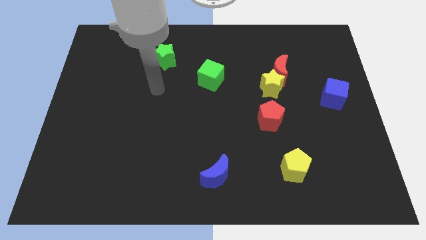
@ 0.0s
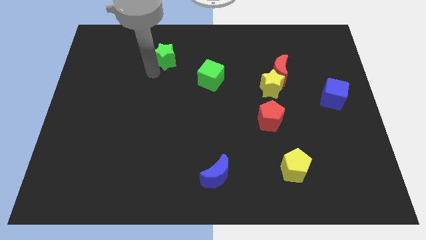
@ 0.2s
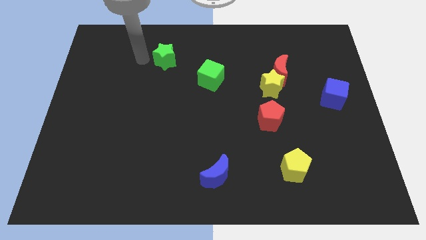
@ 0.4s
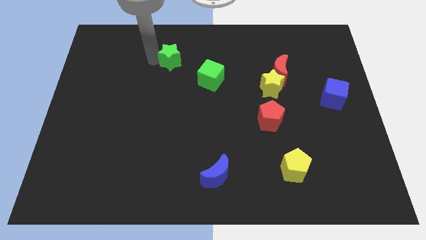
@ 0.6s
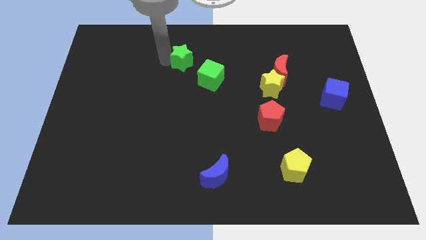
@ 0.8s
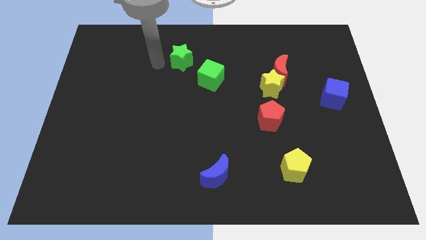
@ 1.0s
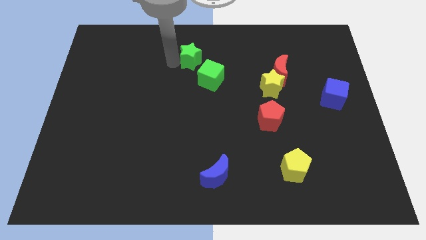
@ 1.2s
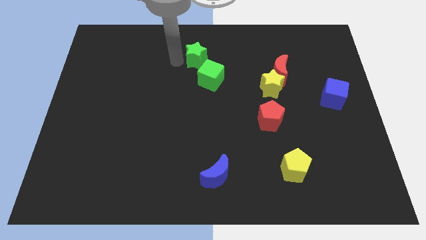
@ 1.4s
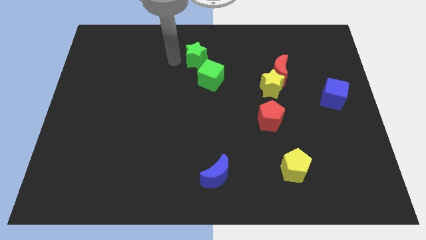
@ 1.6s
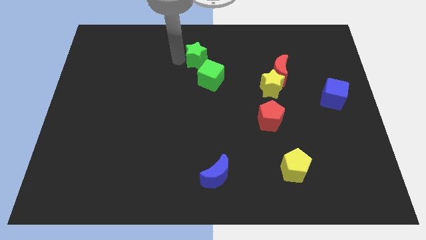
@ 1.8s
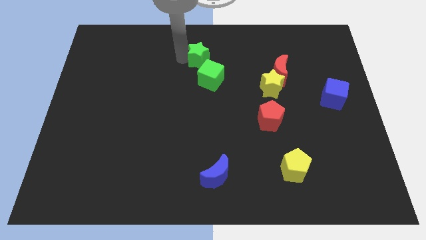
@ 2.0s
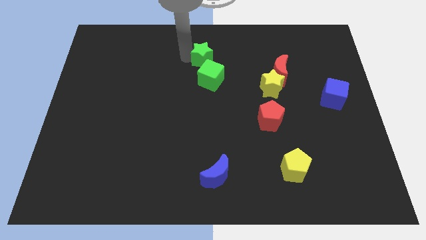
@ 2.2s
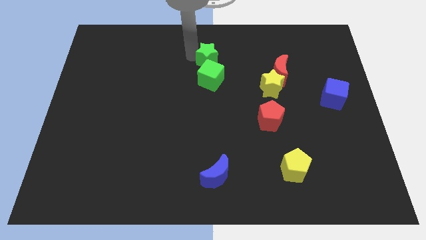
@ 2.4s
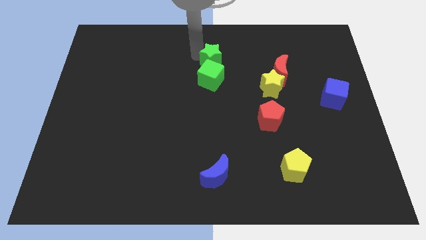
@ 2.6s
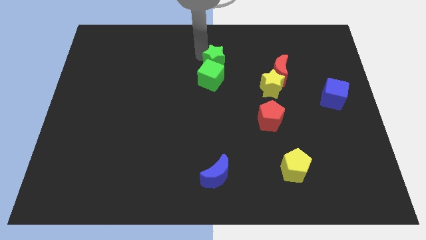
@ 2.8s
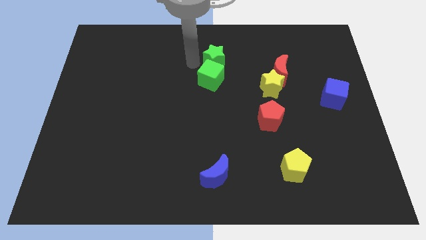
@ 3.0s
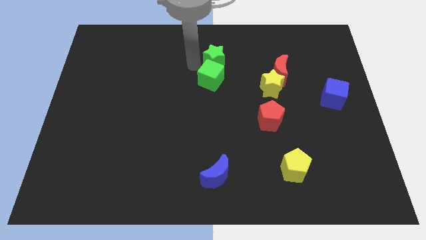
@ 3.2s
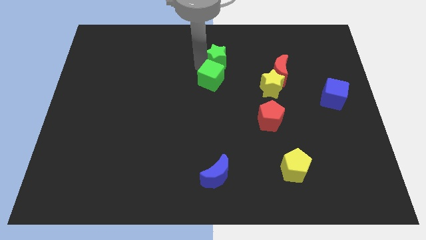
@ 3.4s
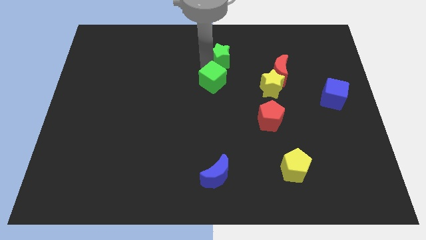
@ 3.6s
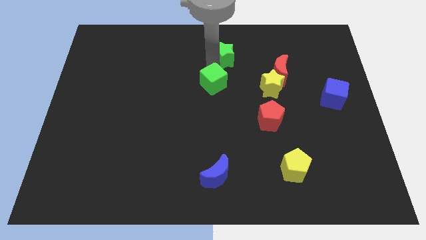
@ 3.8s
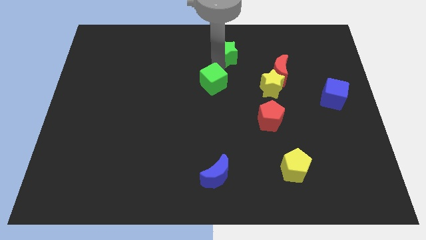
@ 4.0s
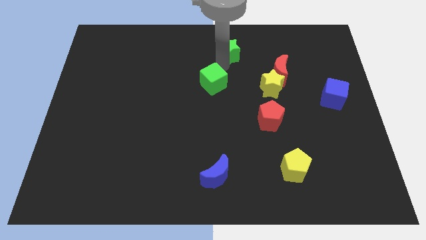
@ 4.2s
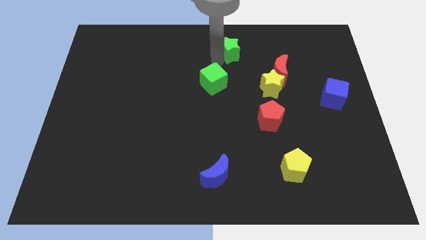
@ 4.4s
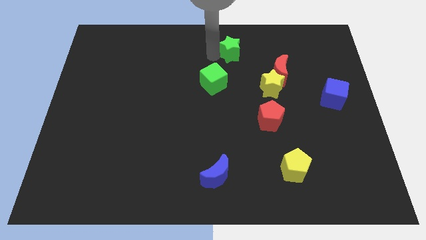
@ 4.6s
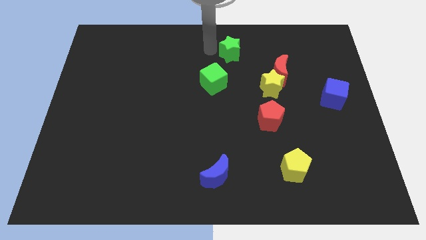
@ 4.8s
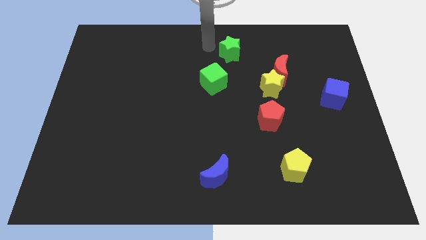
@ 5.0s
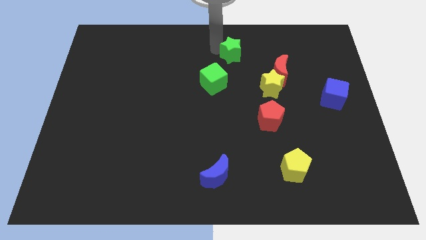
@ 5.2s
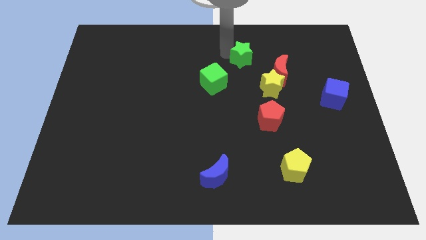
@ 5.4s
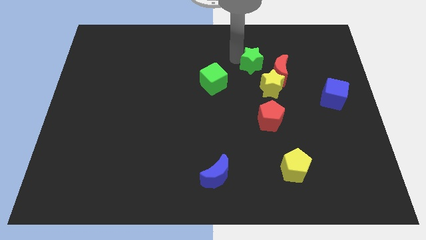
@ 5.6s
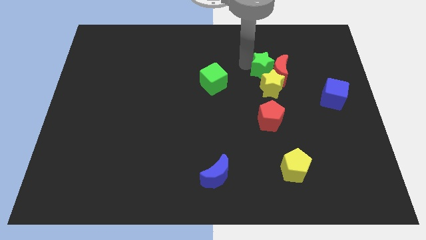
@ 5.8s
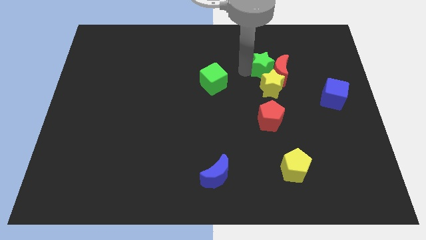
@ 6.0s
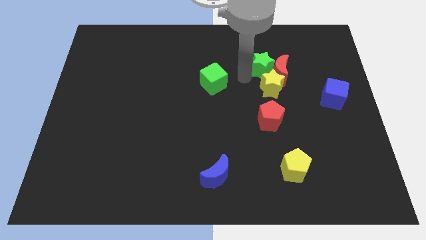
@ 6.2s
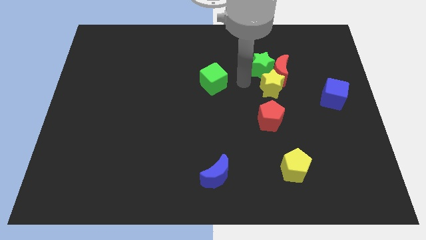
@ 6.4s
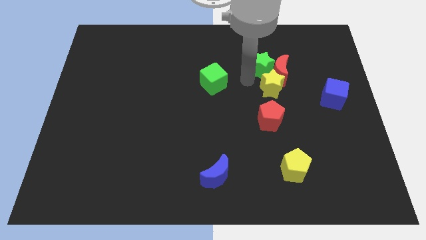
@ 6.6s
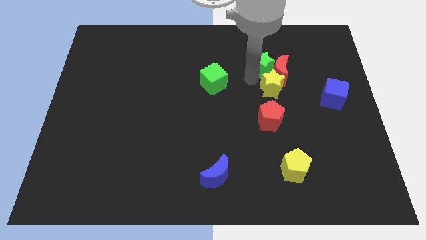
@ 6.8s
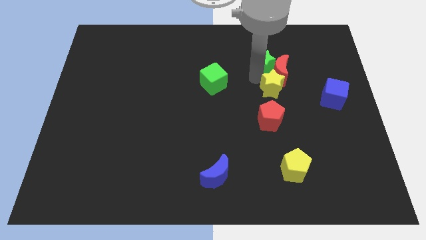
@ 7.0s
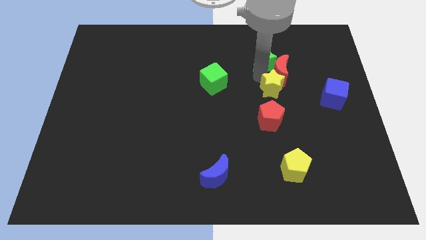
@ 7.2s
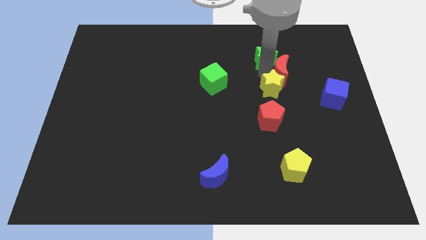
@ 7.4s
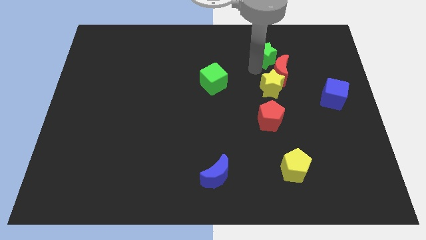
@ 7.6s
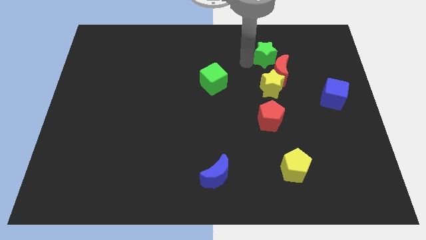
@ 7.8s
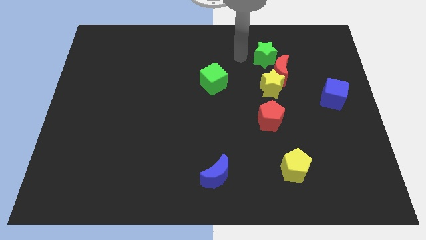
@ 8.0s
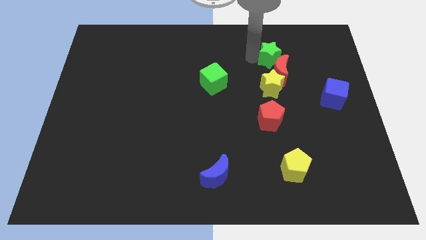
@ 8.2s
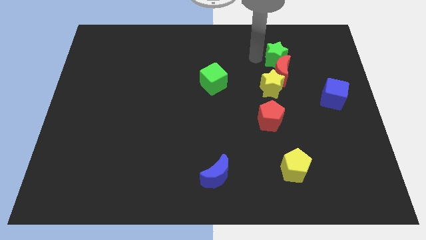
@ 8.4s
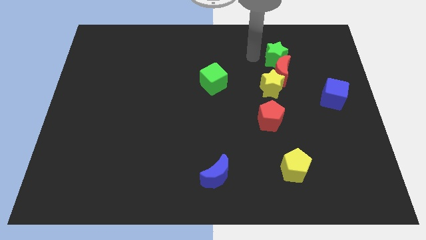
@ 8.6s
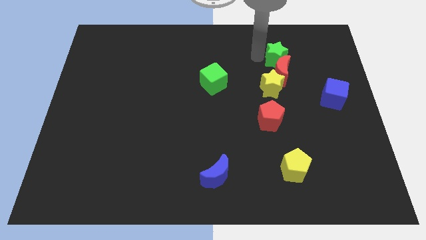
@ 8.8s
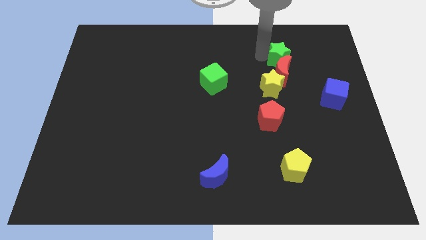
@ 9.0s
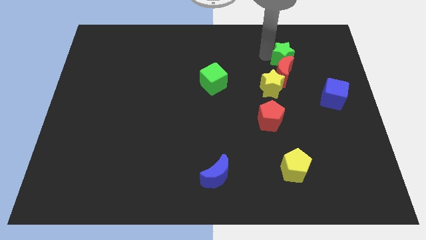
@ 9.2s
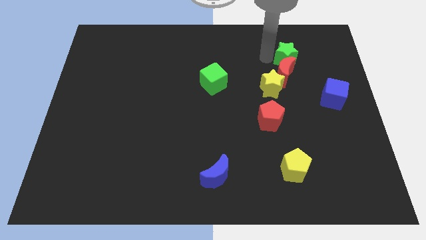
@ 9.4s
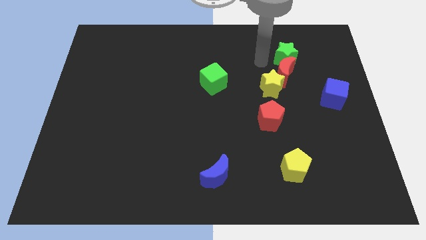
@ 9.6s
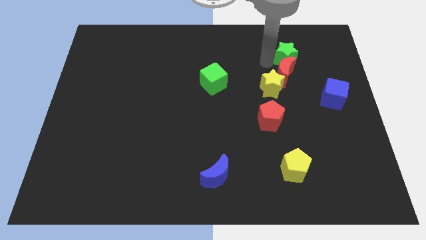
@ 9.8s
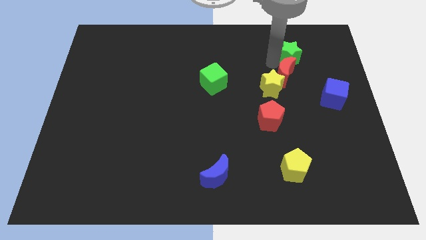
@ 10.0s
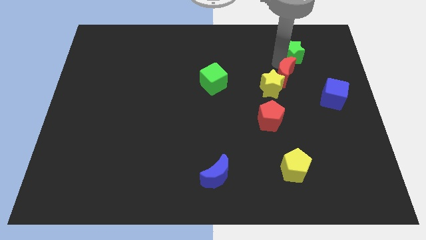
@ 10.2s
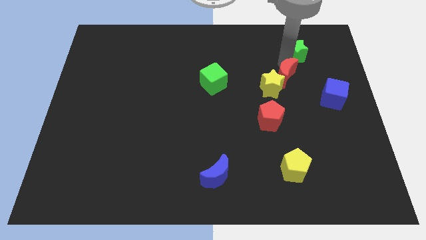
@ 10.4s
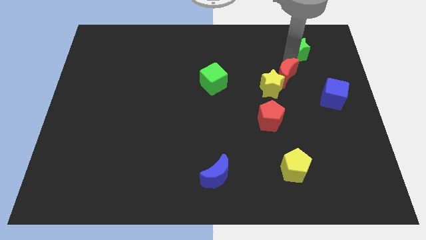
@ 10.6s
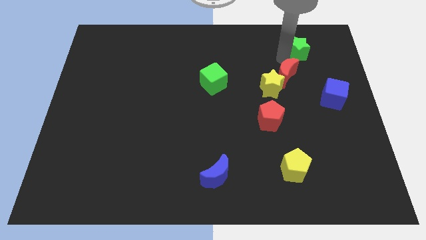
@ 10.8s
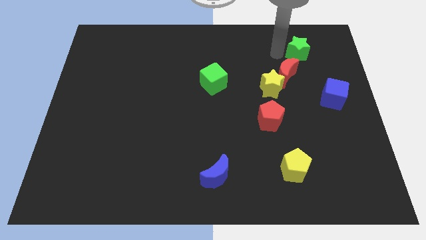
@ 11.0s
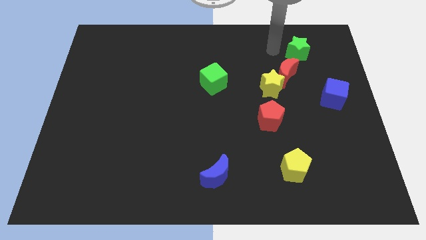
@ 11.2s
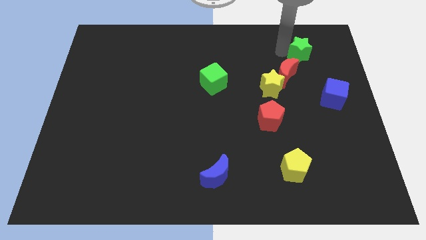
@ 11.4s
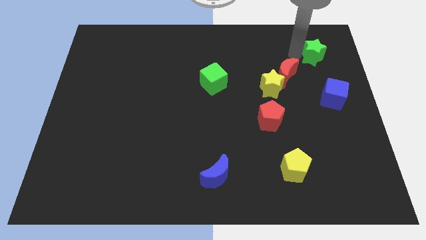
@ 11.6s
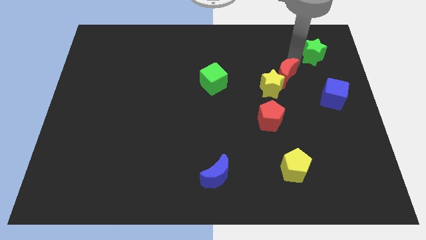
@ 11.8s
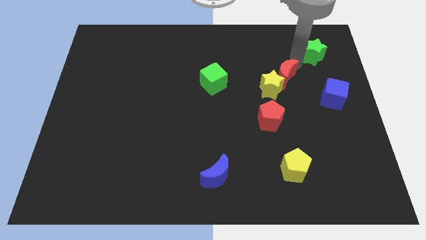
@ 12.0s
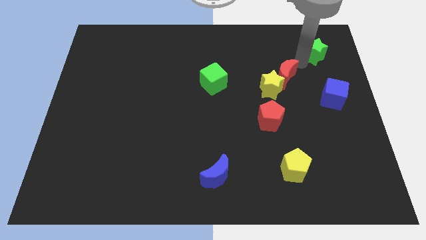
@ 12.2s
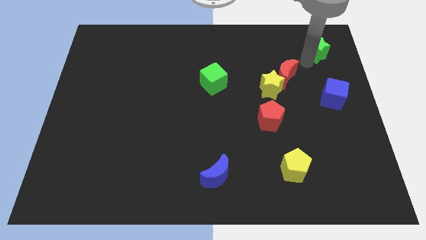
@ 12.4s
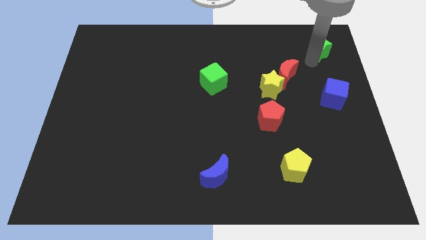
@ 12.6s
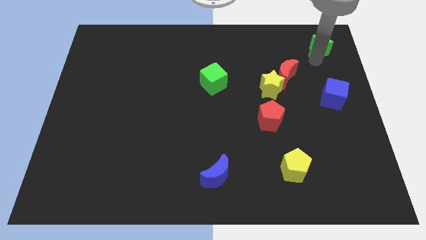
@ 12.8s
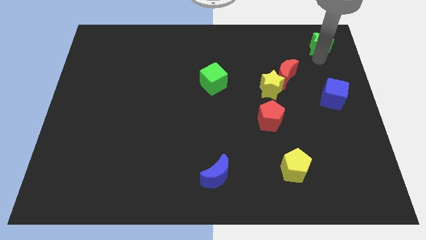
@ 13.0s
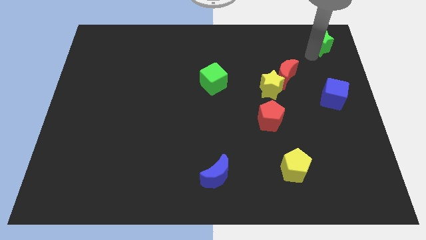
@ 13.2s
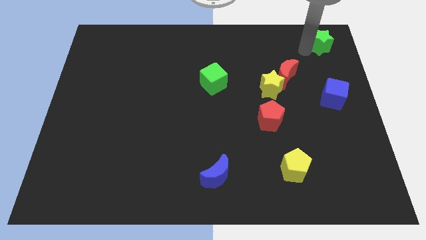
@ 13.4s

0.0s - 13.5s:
put the green star to the top right corner
